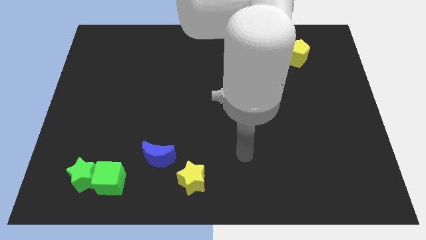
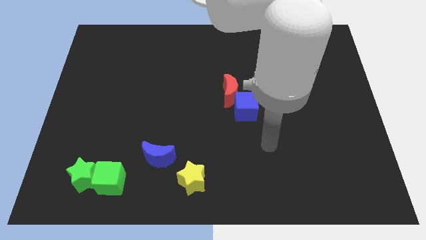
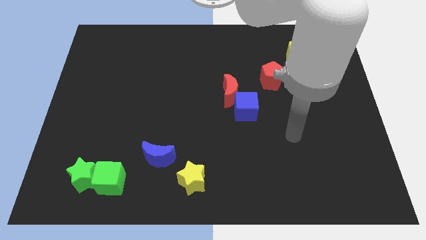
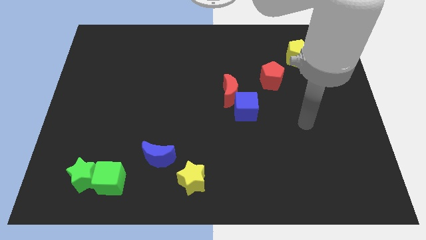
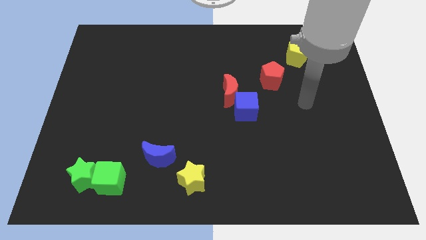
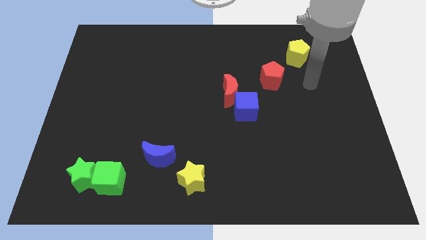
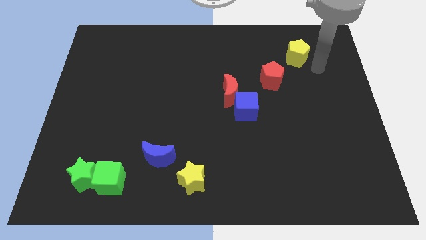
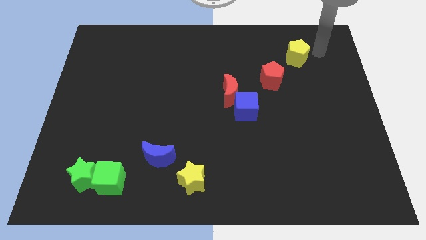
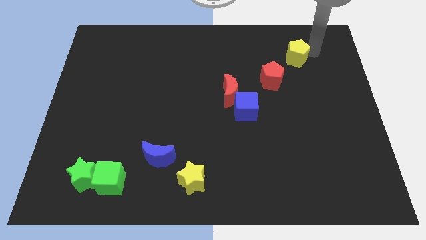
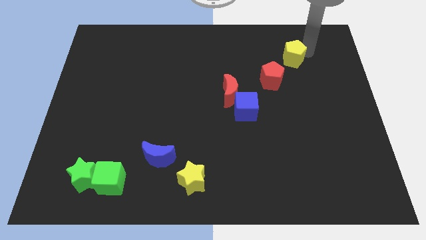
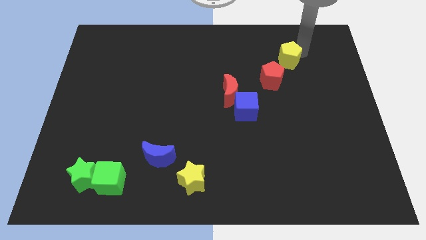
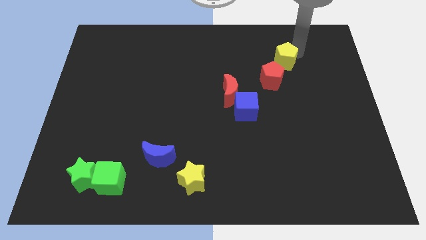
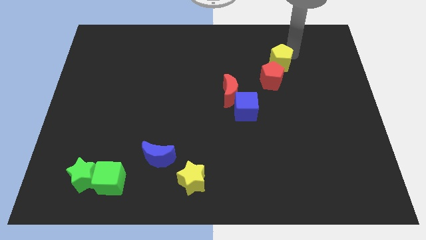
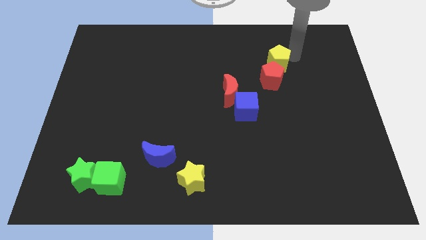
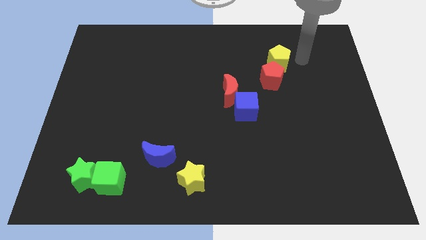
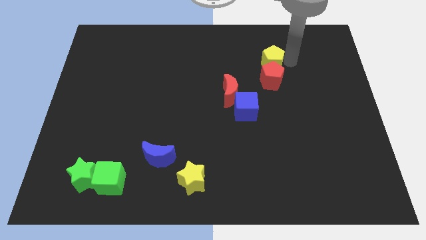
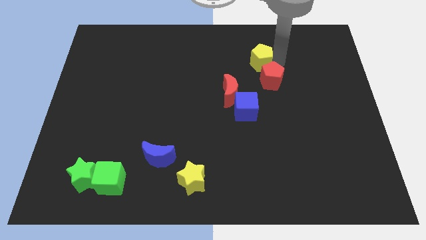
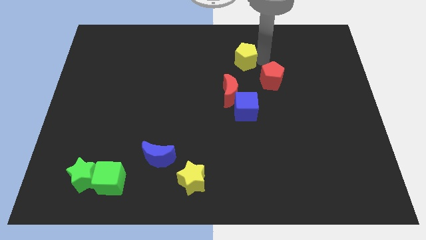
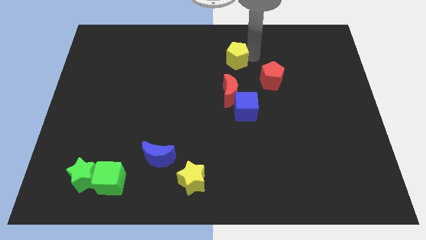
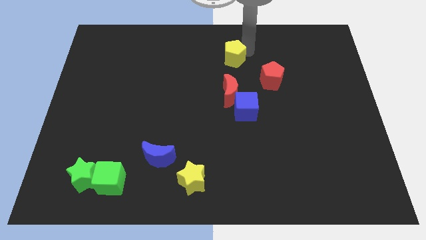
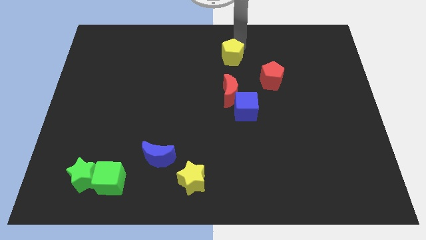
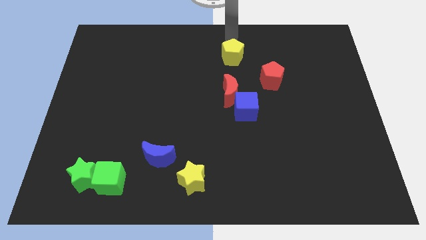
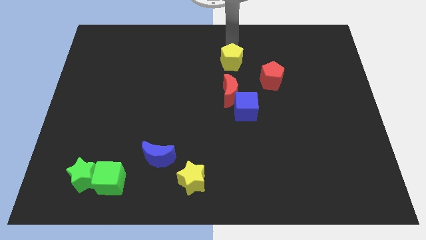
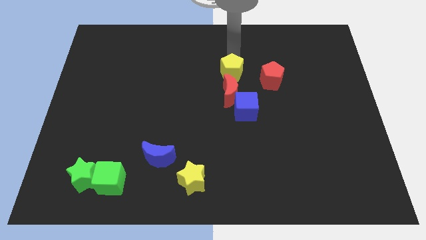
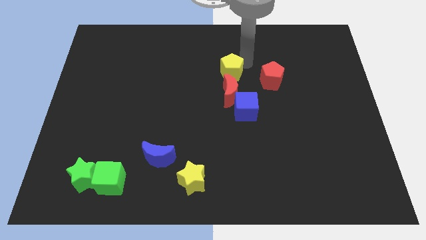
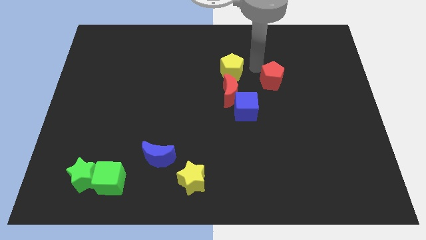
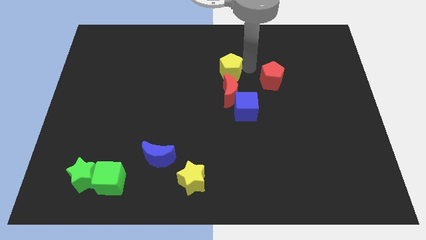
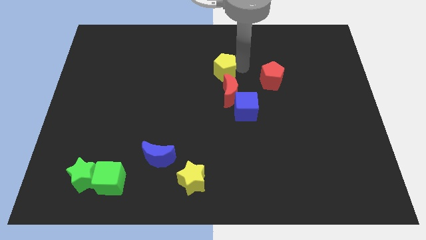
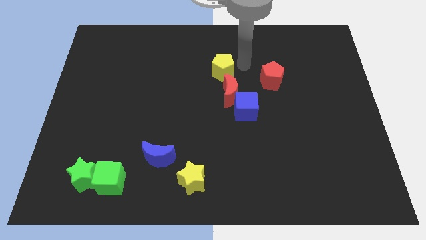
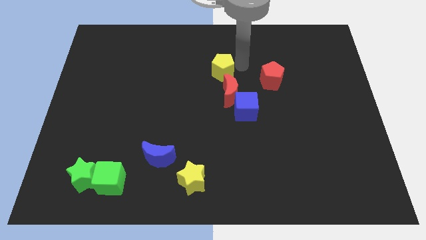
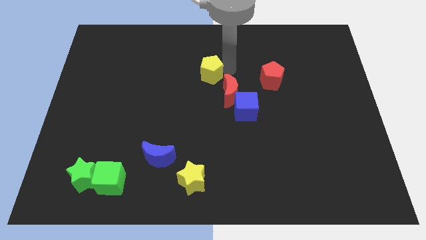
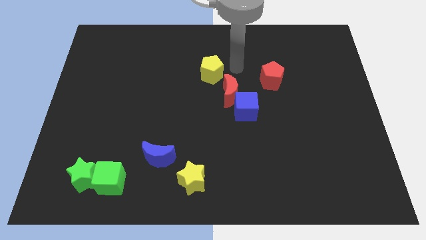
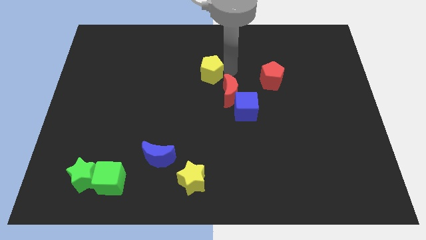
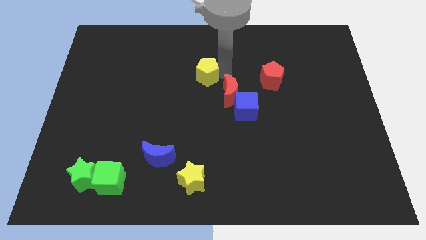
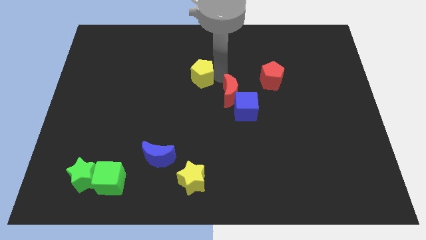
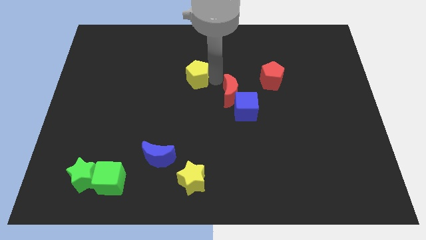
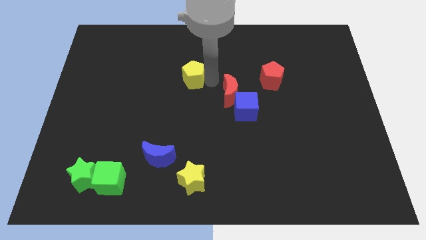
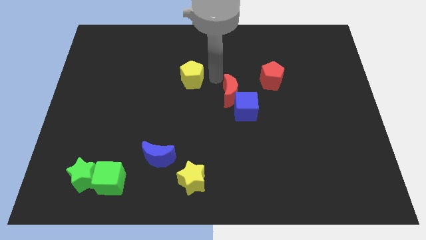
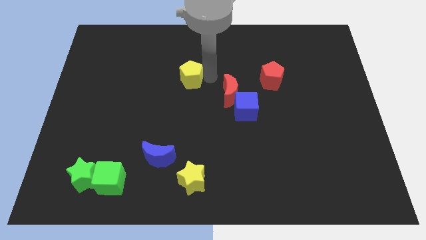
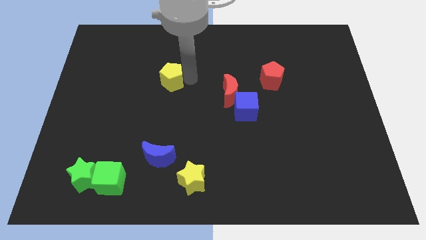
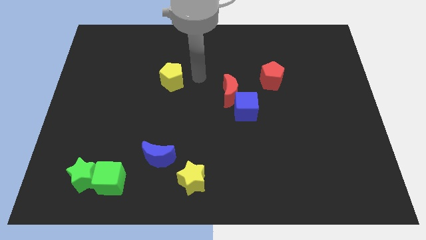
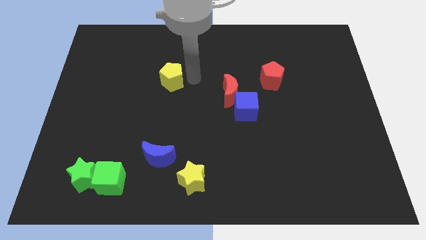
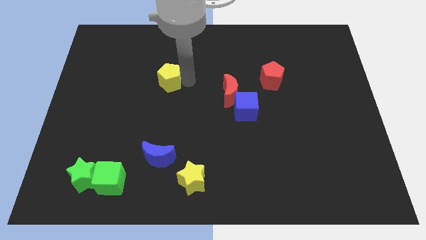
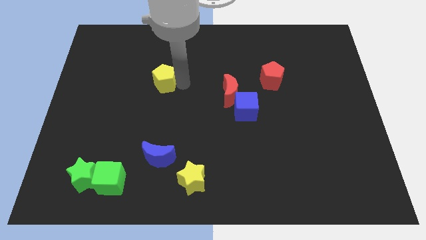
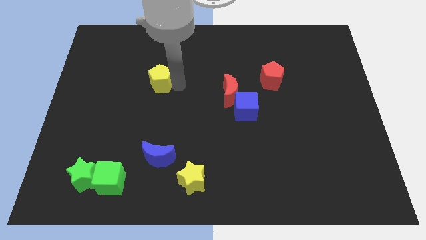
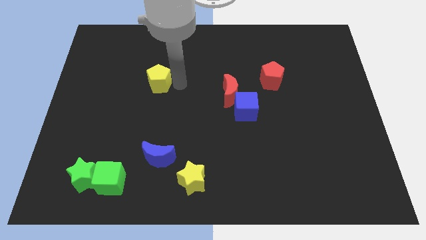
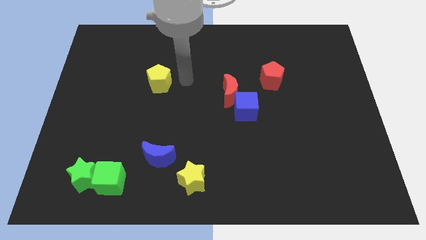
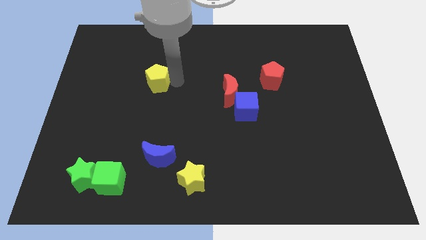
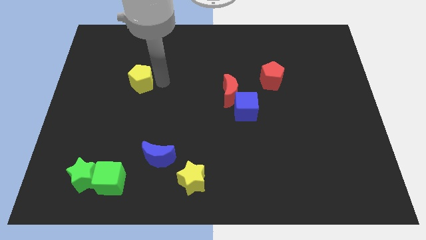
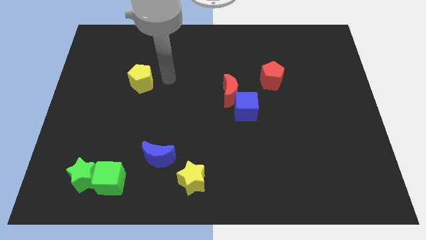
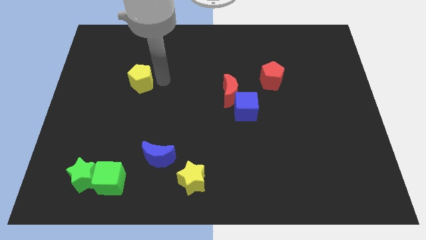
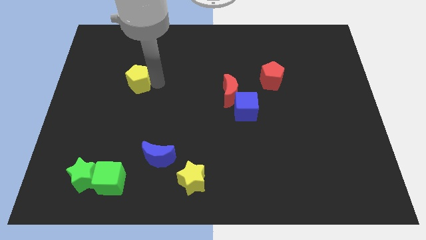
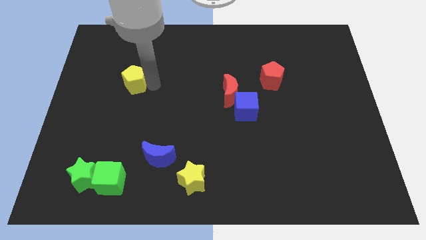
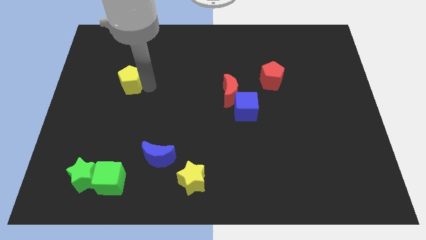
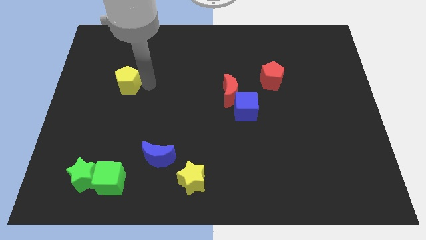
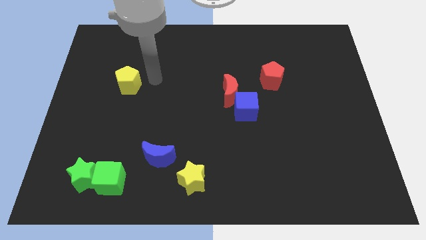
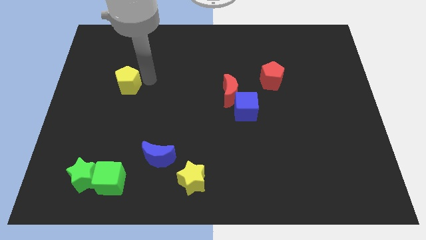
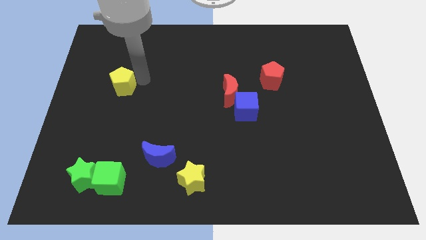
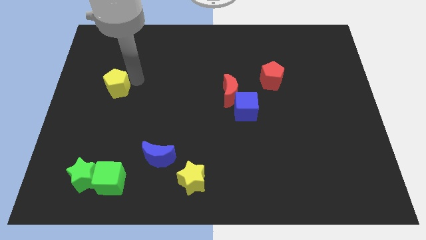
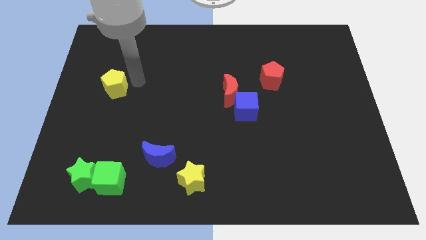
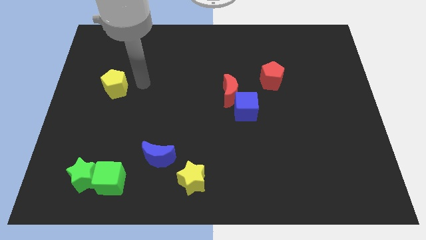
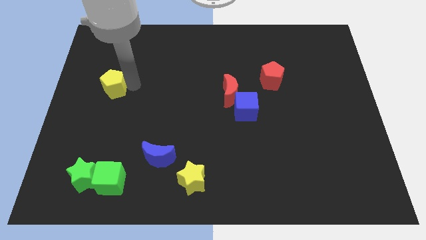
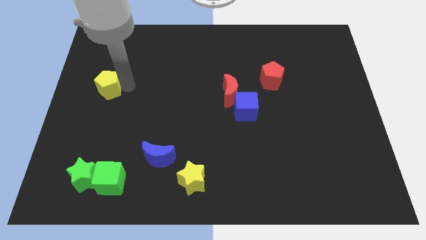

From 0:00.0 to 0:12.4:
move the yellow pentagon to the left side of the board

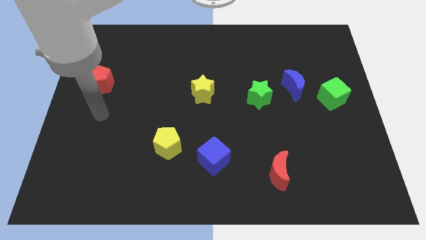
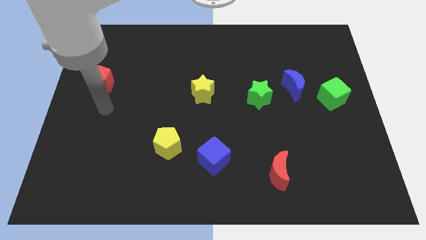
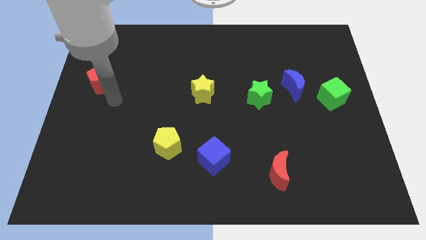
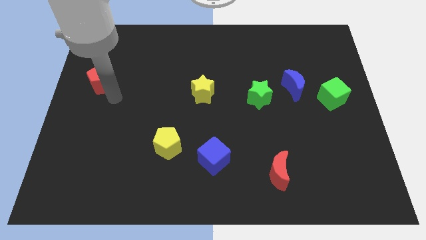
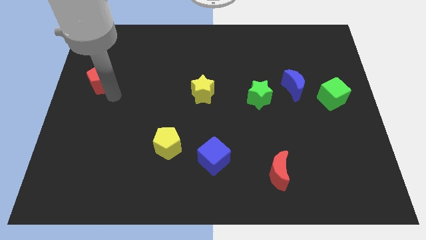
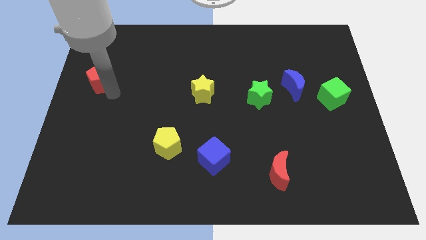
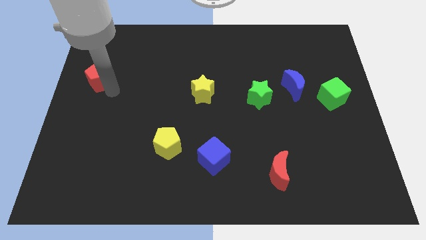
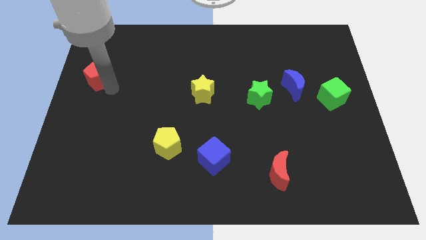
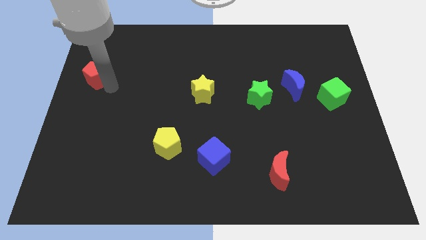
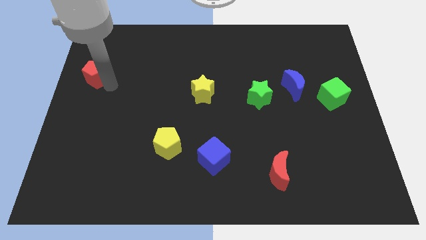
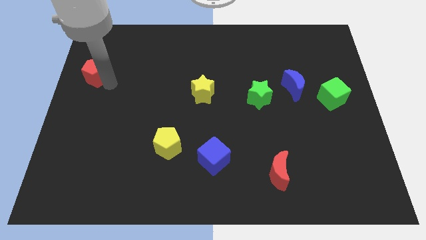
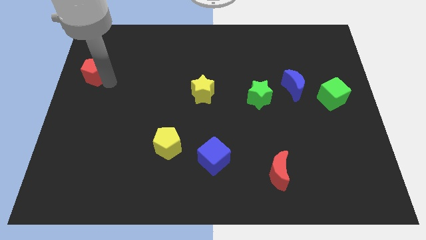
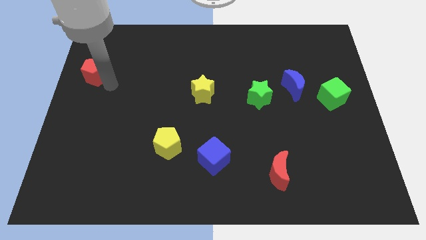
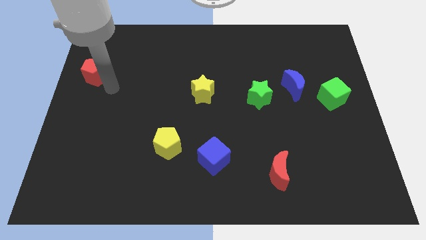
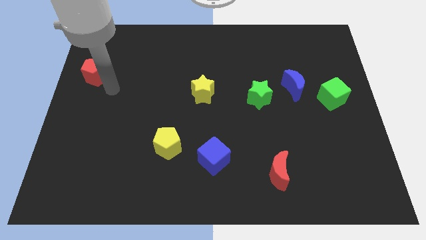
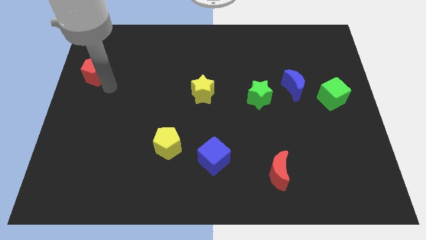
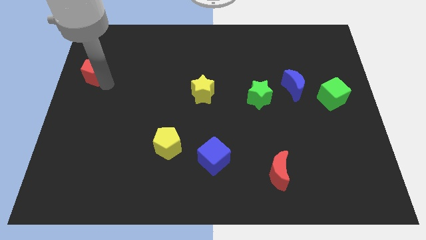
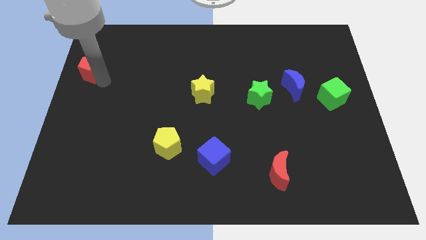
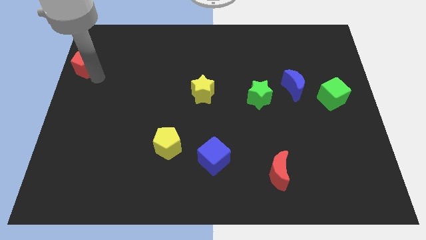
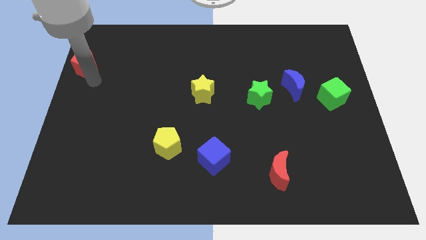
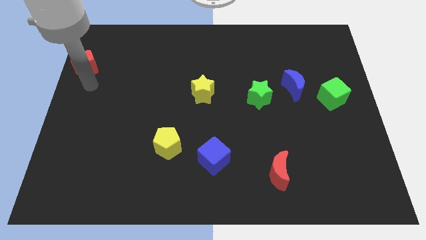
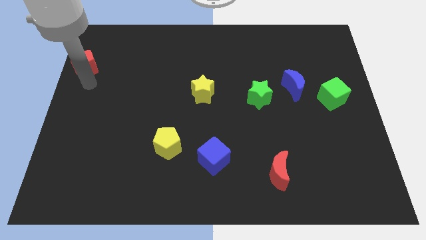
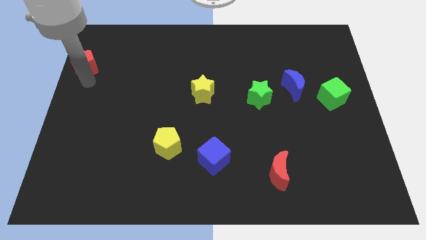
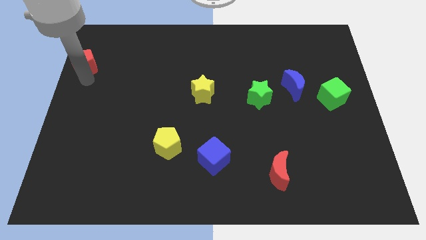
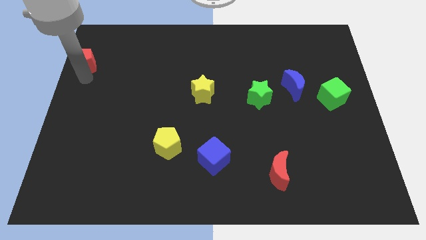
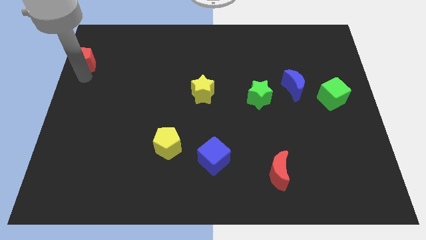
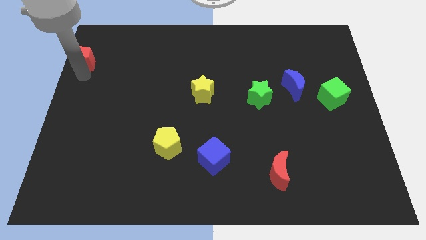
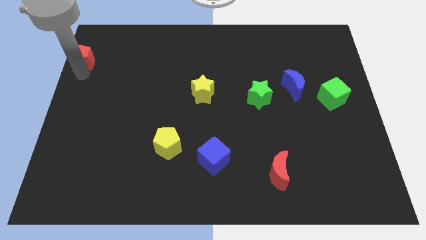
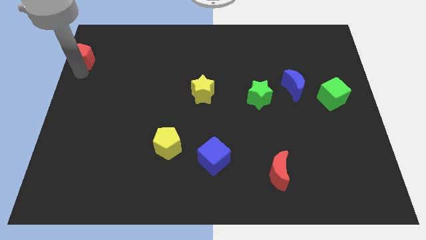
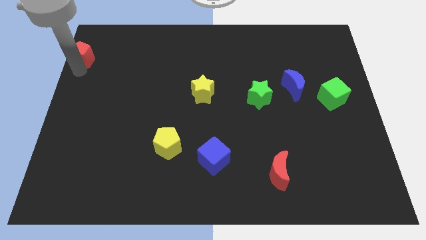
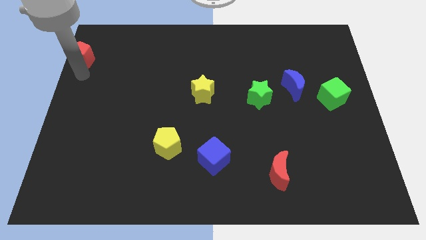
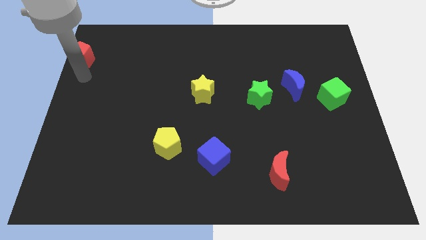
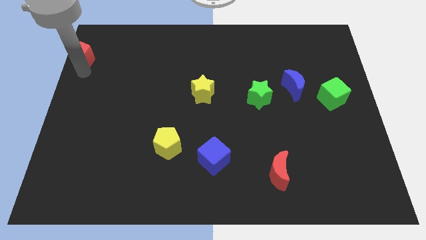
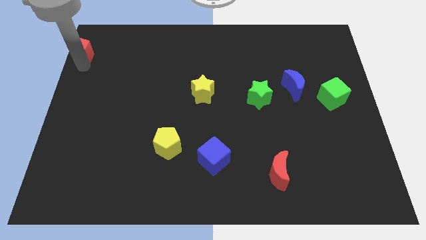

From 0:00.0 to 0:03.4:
put the red pentagon to the top left corner
